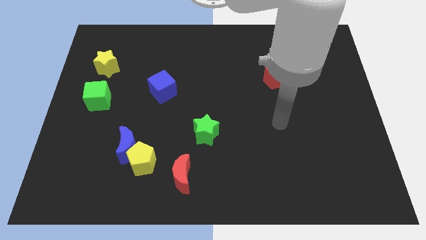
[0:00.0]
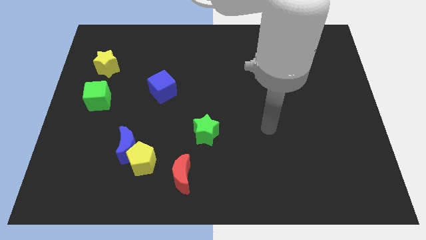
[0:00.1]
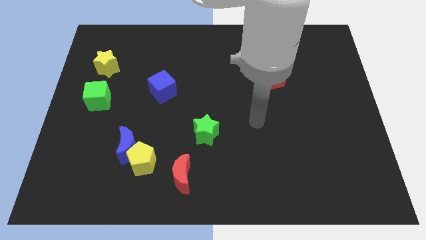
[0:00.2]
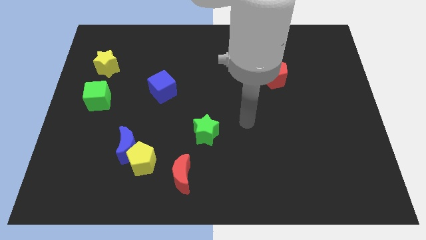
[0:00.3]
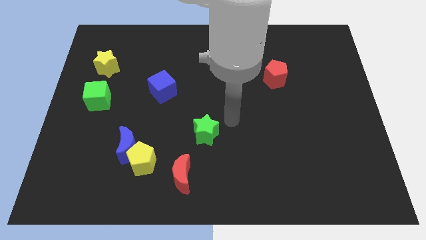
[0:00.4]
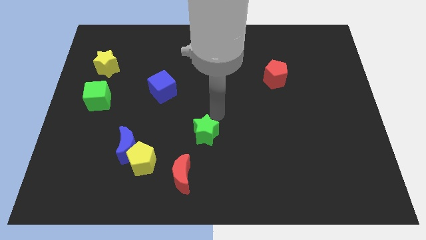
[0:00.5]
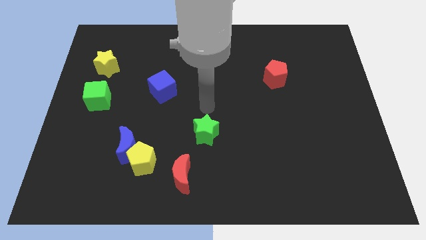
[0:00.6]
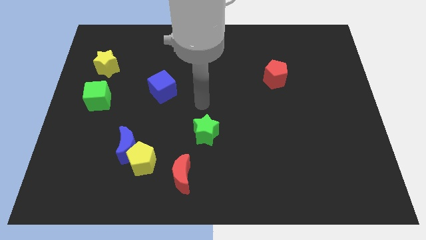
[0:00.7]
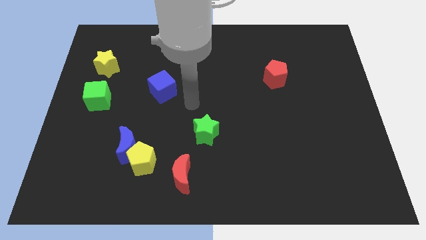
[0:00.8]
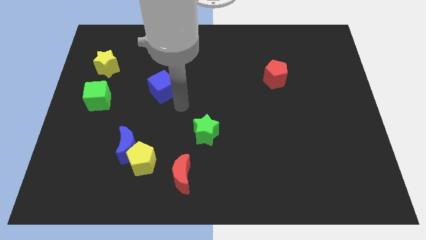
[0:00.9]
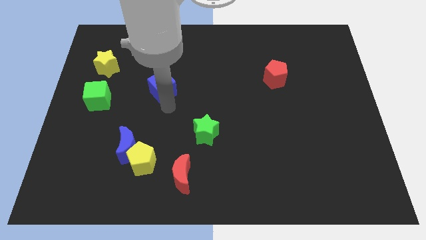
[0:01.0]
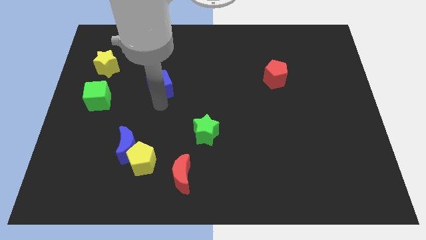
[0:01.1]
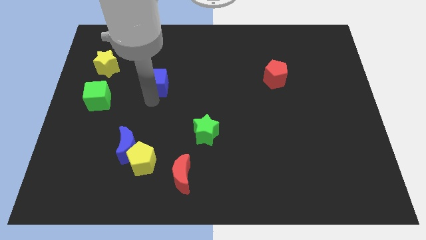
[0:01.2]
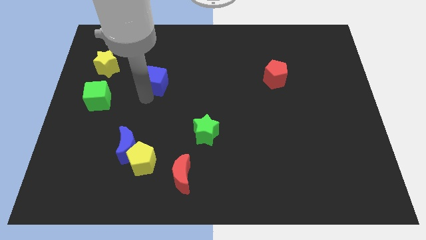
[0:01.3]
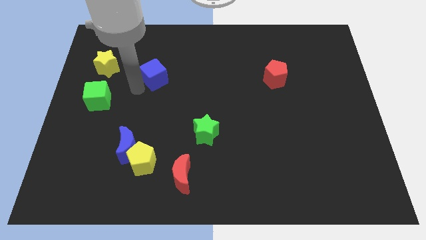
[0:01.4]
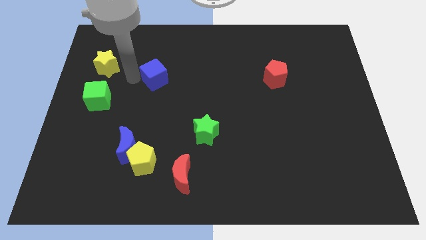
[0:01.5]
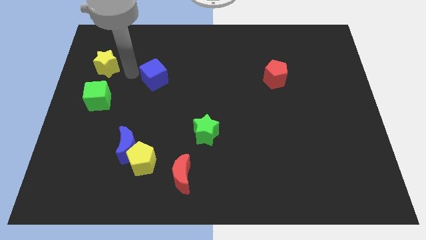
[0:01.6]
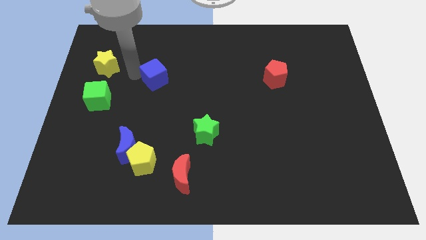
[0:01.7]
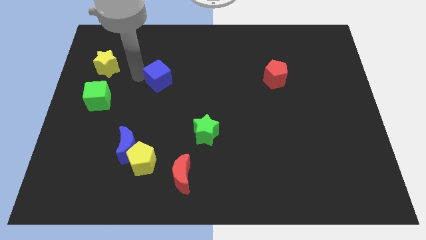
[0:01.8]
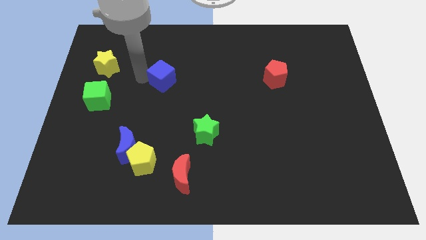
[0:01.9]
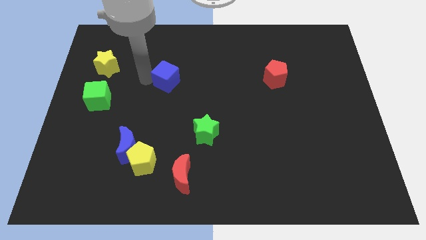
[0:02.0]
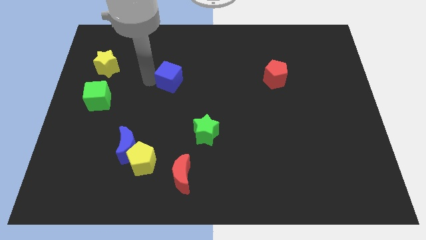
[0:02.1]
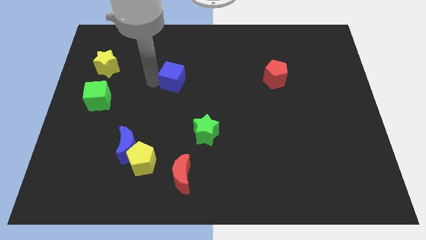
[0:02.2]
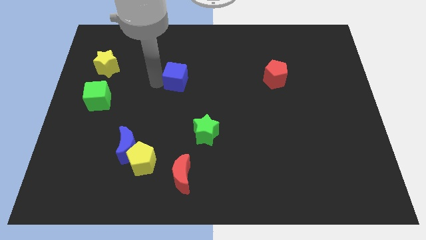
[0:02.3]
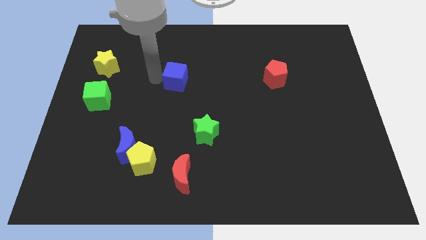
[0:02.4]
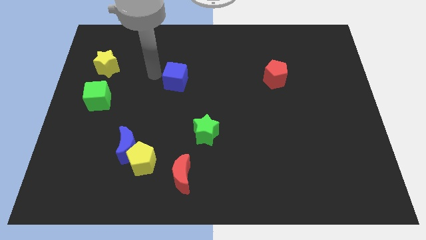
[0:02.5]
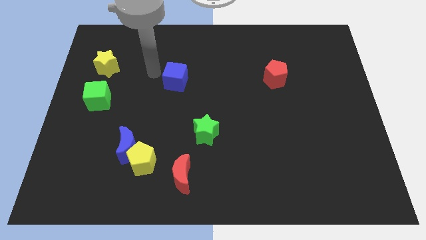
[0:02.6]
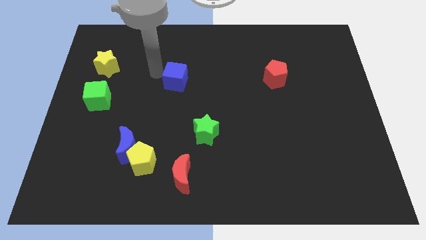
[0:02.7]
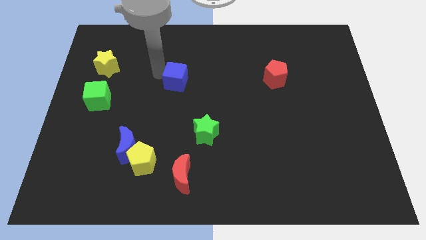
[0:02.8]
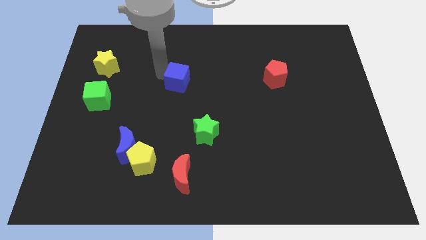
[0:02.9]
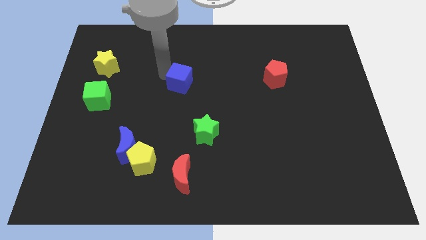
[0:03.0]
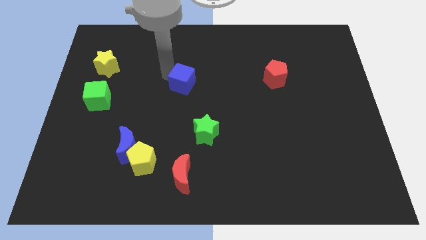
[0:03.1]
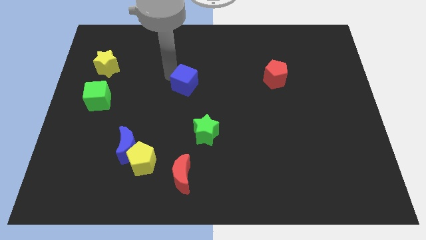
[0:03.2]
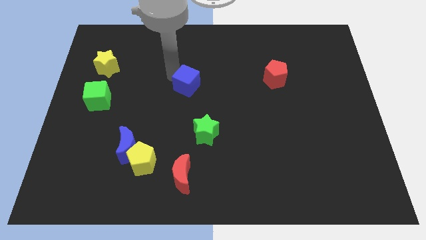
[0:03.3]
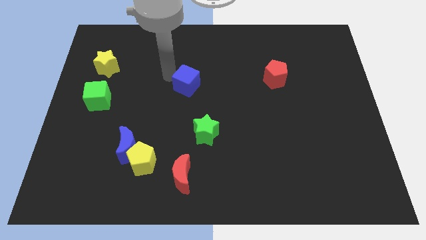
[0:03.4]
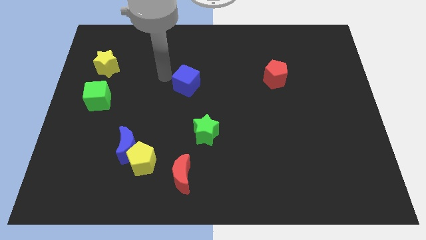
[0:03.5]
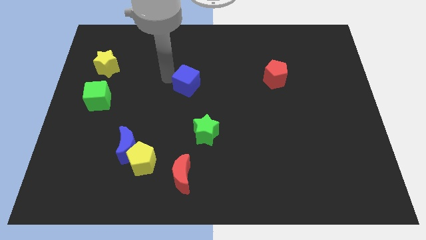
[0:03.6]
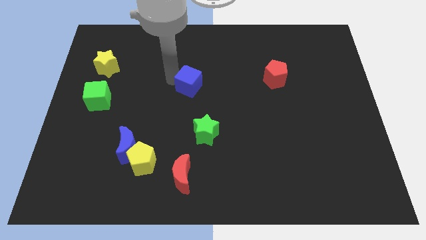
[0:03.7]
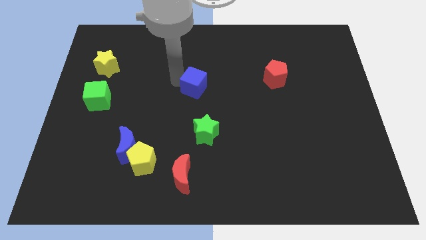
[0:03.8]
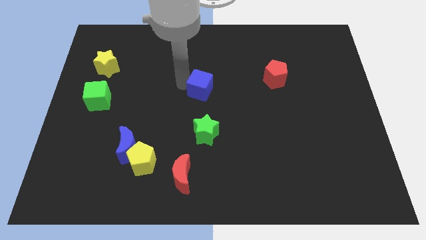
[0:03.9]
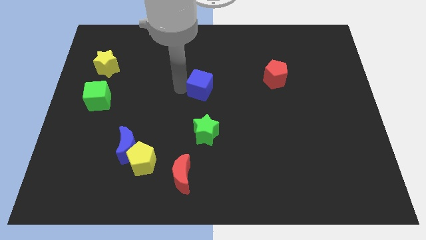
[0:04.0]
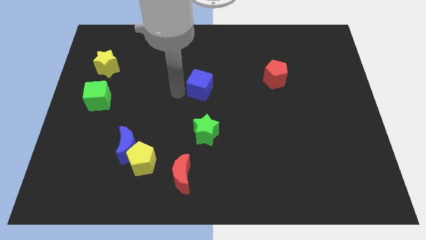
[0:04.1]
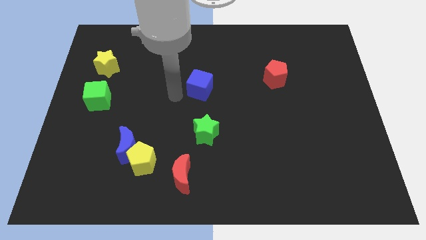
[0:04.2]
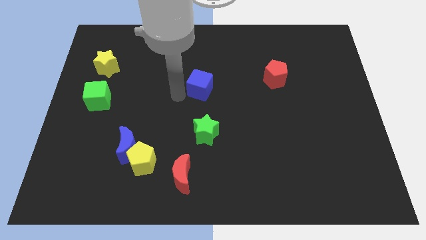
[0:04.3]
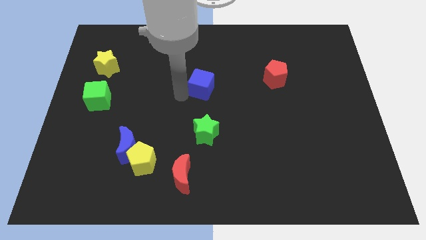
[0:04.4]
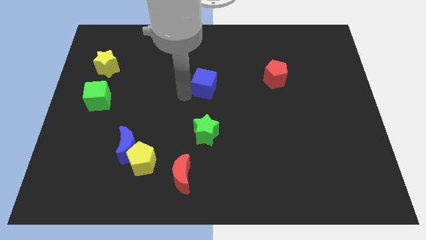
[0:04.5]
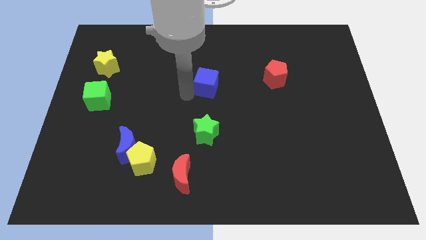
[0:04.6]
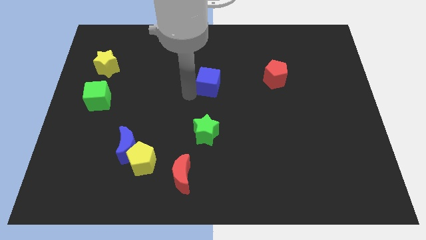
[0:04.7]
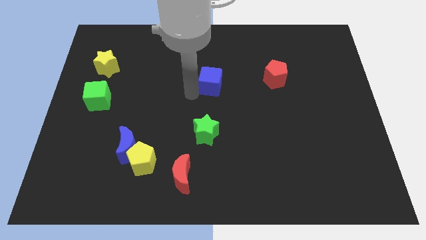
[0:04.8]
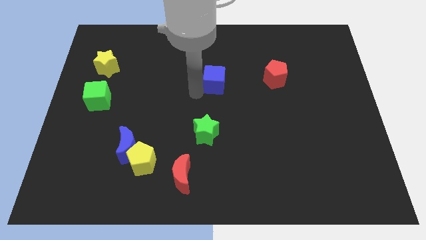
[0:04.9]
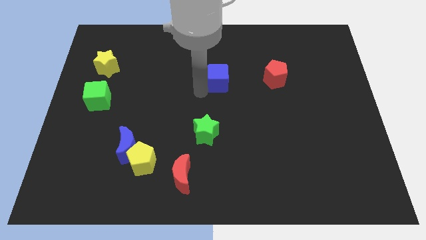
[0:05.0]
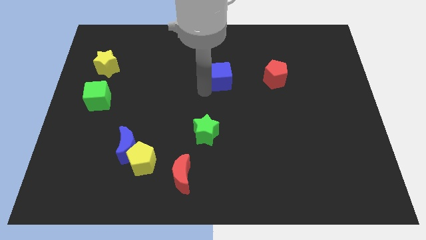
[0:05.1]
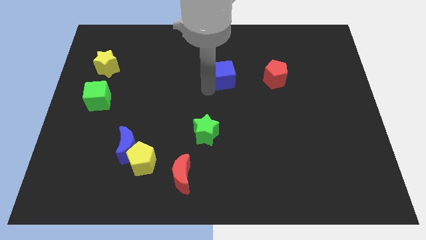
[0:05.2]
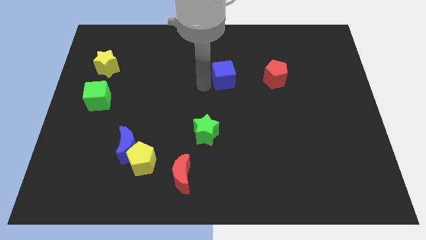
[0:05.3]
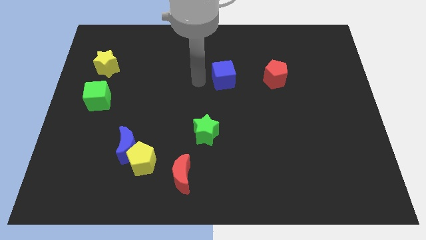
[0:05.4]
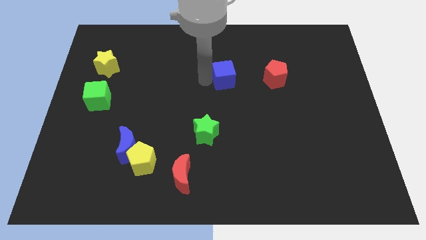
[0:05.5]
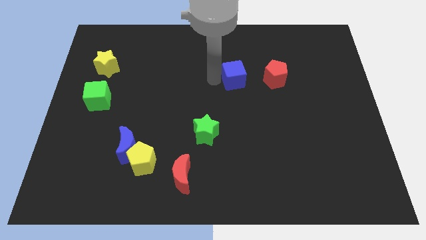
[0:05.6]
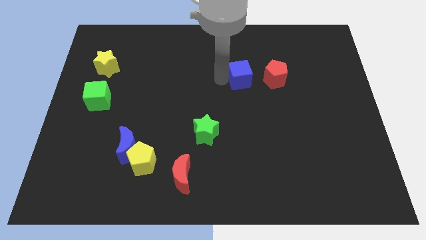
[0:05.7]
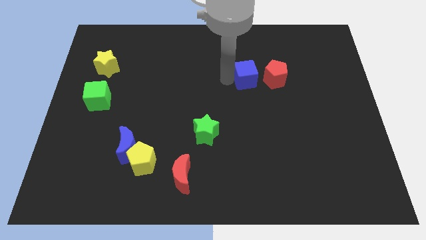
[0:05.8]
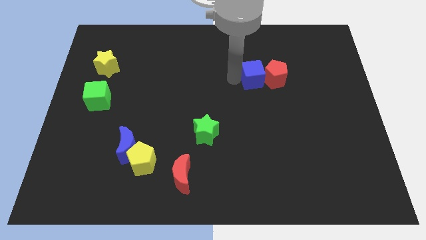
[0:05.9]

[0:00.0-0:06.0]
push the blue cube towards the red pentagon

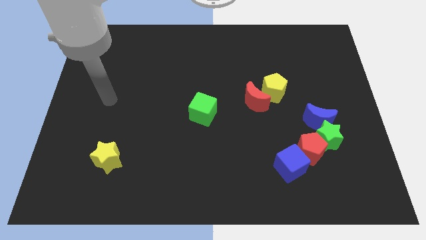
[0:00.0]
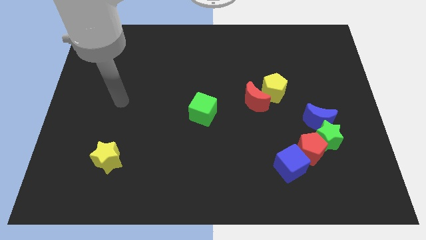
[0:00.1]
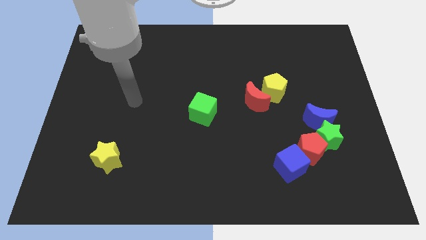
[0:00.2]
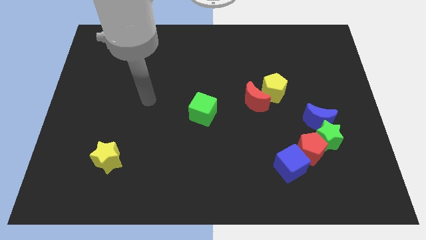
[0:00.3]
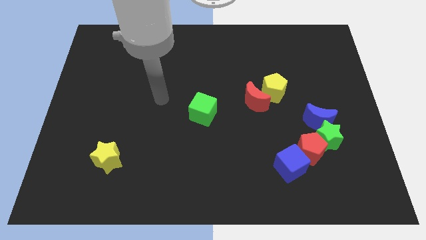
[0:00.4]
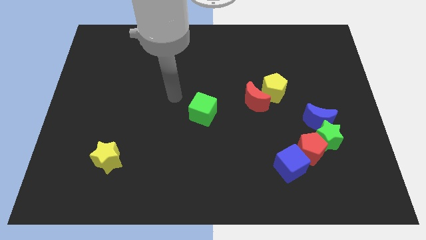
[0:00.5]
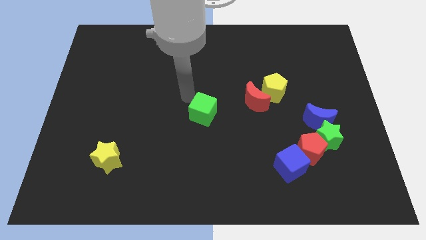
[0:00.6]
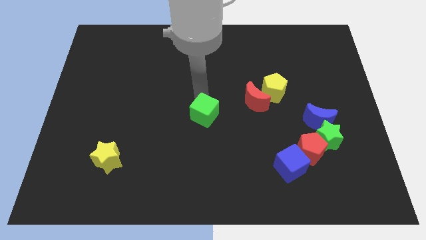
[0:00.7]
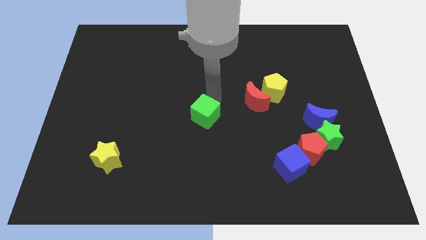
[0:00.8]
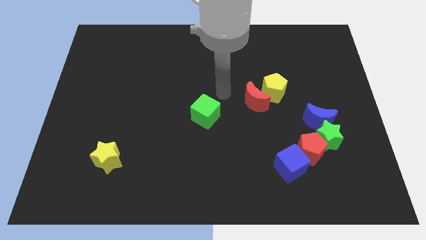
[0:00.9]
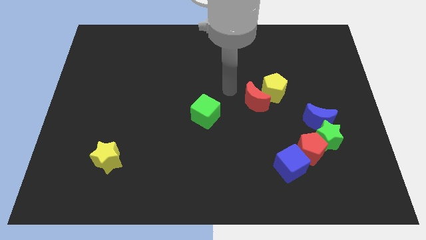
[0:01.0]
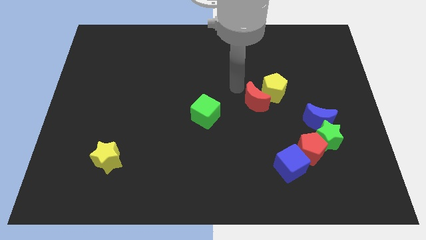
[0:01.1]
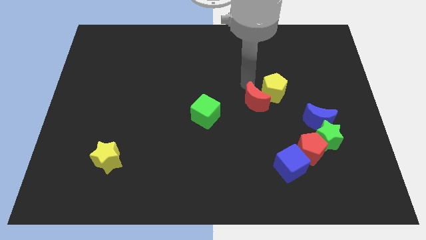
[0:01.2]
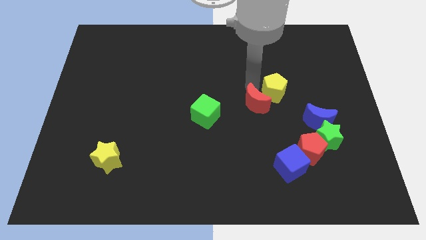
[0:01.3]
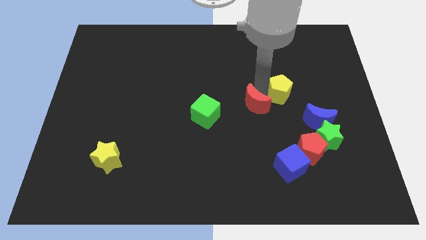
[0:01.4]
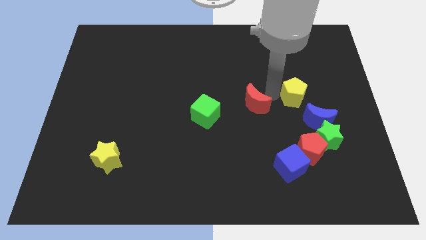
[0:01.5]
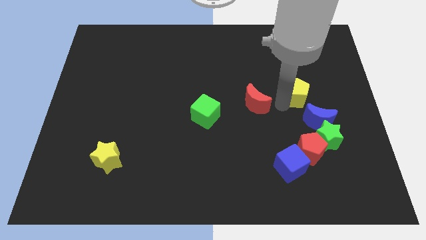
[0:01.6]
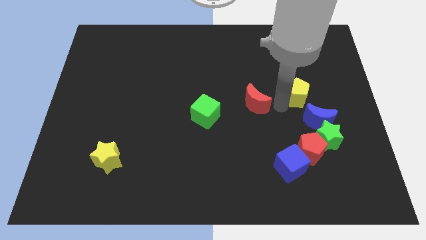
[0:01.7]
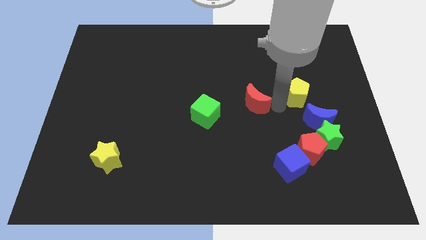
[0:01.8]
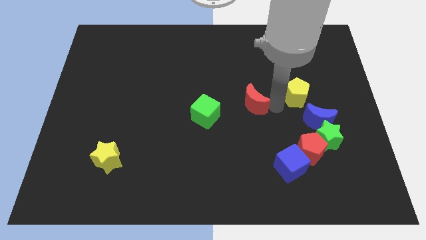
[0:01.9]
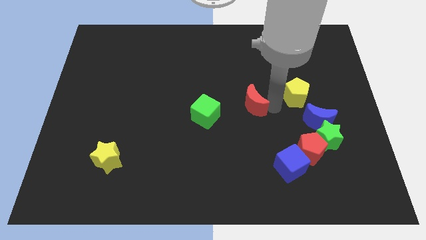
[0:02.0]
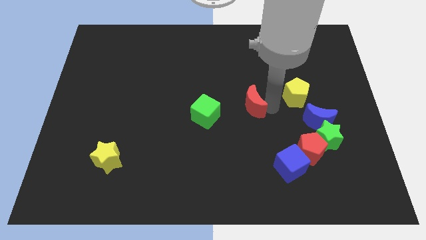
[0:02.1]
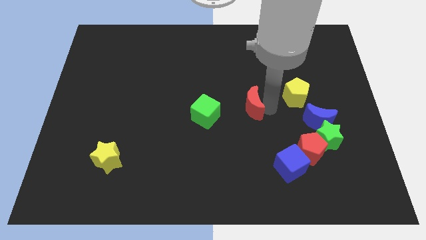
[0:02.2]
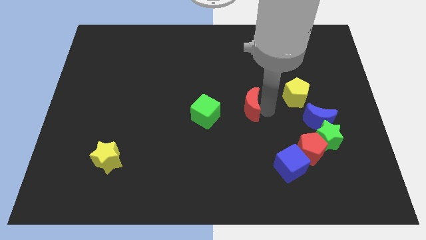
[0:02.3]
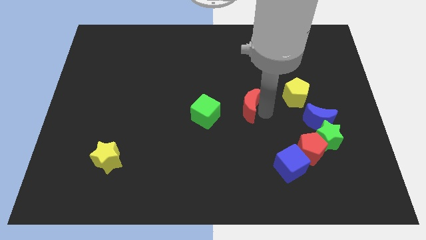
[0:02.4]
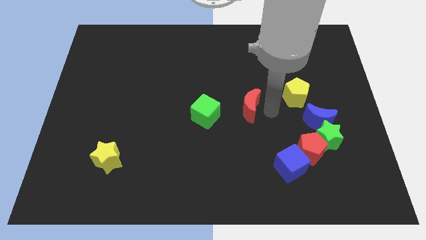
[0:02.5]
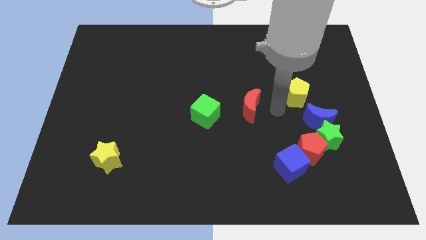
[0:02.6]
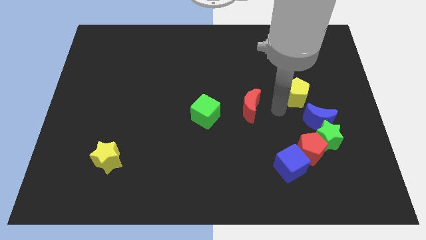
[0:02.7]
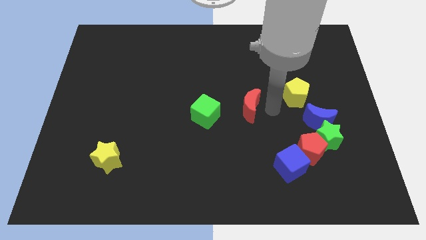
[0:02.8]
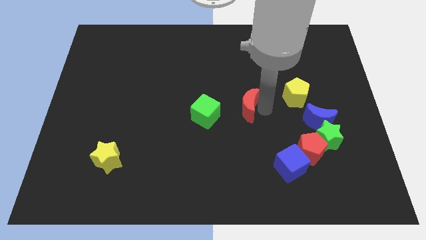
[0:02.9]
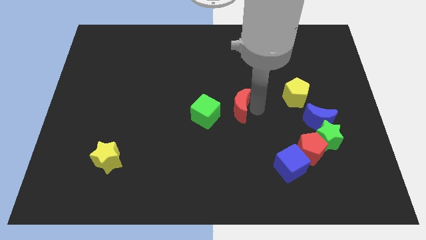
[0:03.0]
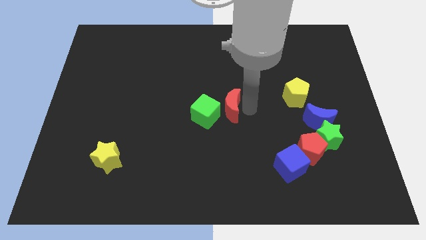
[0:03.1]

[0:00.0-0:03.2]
slide the red moon to the green cube
